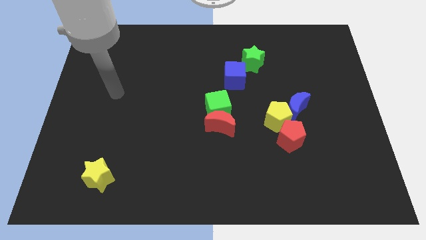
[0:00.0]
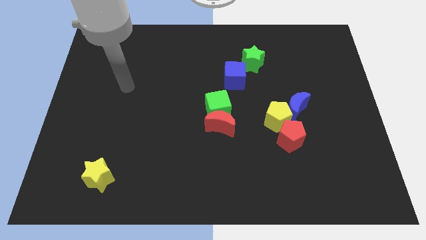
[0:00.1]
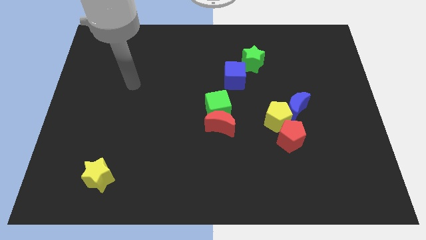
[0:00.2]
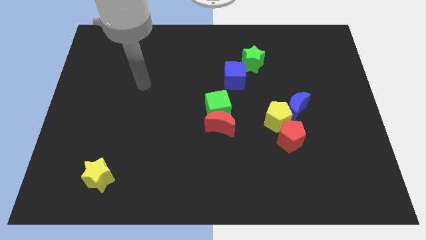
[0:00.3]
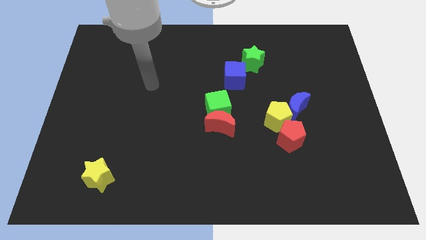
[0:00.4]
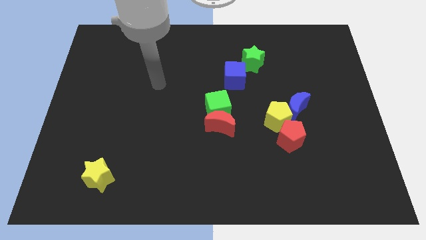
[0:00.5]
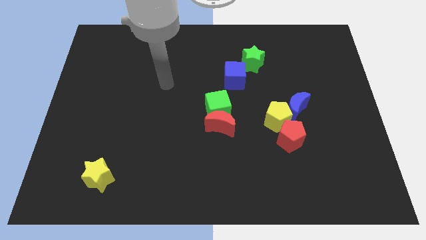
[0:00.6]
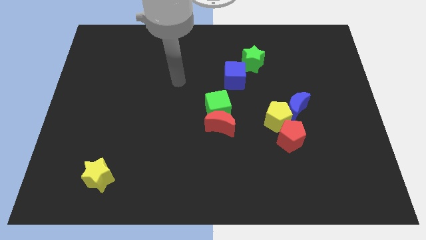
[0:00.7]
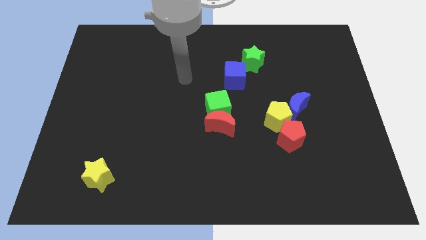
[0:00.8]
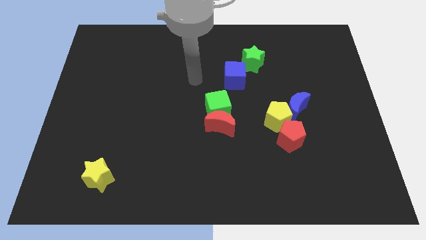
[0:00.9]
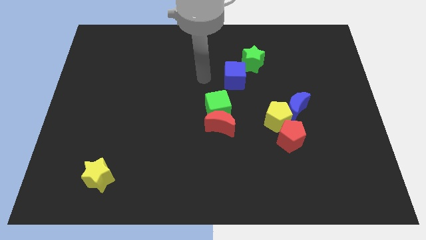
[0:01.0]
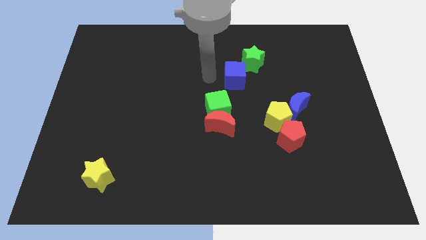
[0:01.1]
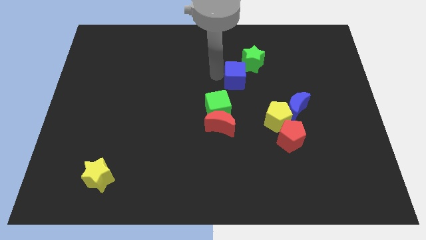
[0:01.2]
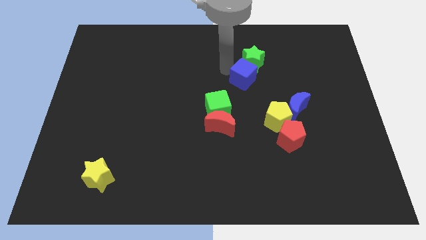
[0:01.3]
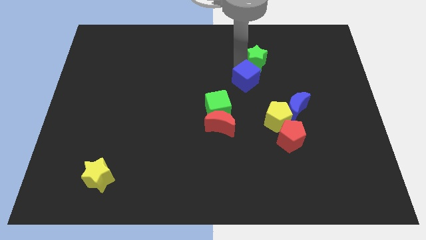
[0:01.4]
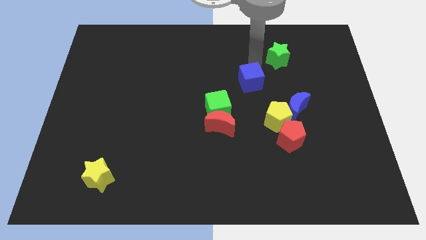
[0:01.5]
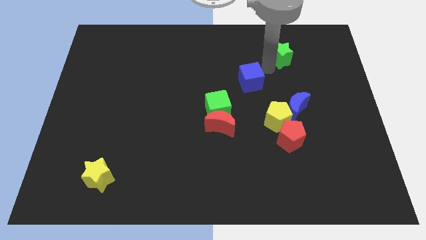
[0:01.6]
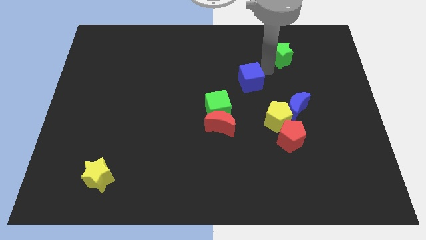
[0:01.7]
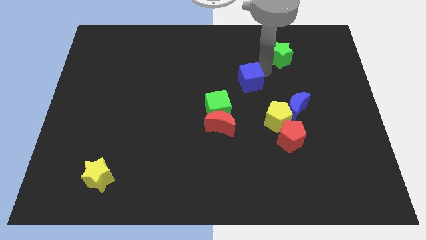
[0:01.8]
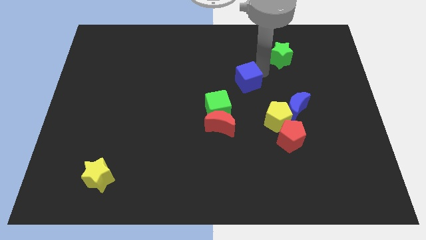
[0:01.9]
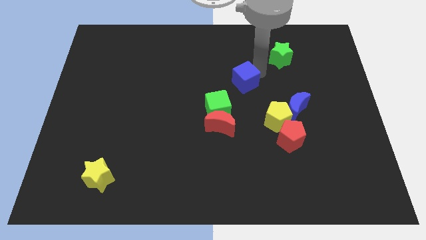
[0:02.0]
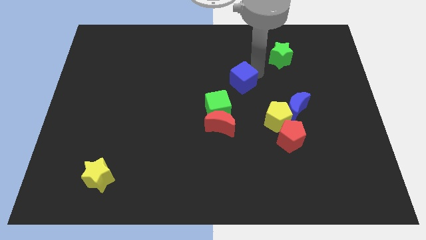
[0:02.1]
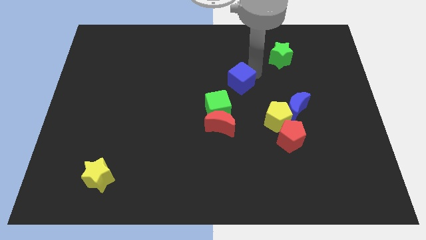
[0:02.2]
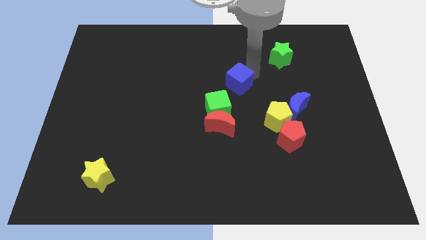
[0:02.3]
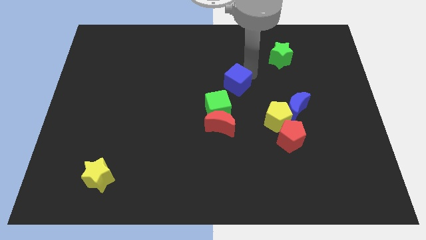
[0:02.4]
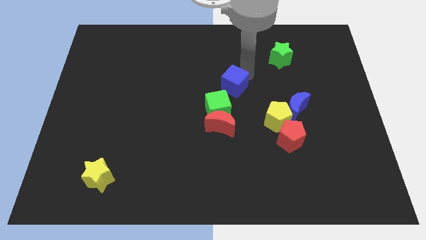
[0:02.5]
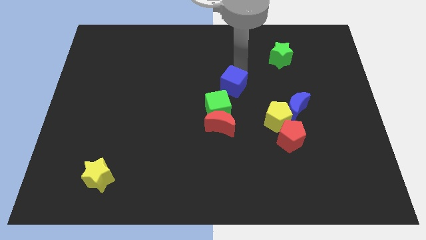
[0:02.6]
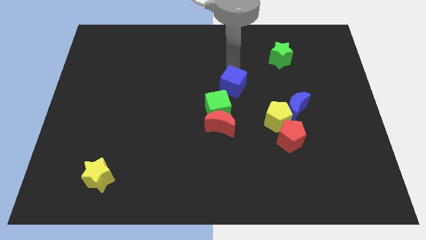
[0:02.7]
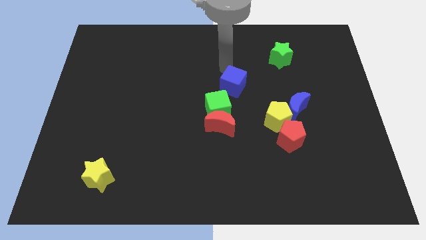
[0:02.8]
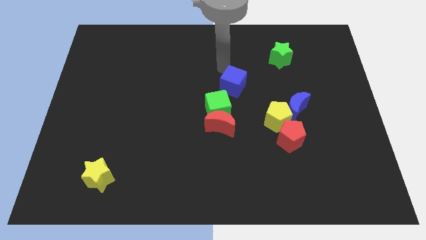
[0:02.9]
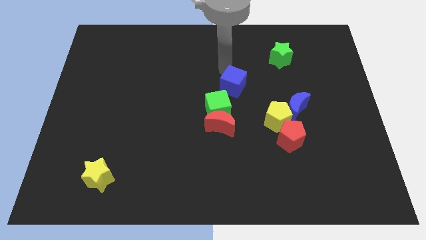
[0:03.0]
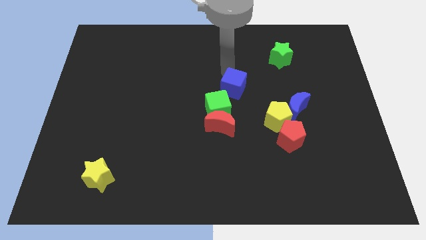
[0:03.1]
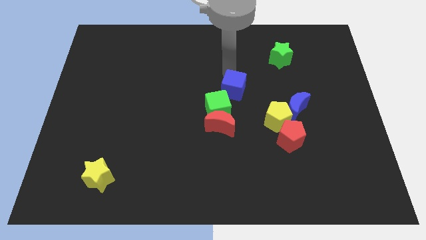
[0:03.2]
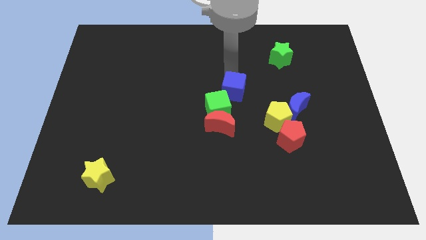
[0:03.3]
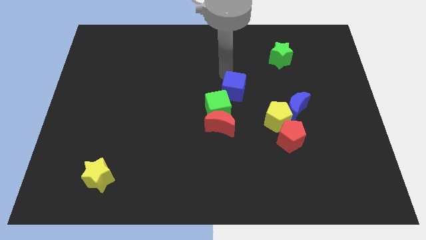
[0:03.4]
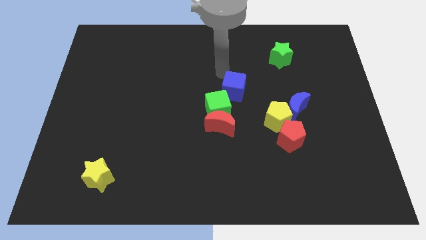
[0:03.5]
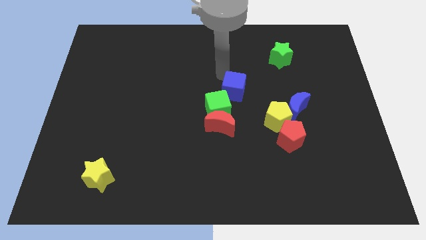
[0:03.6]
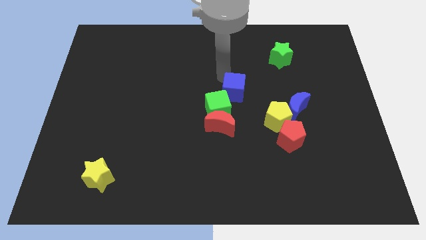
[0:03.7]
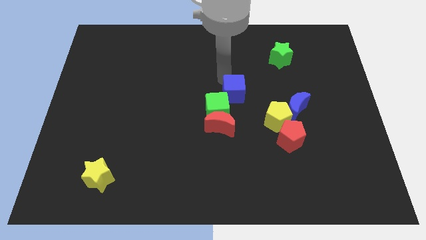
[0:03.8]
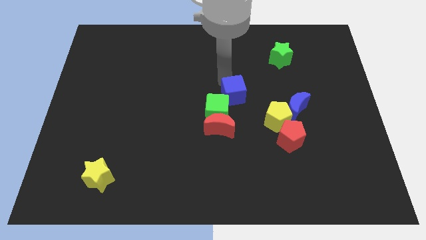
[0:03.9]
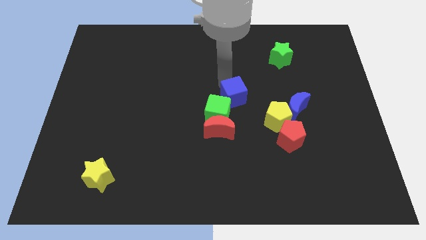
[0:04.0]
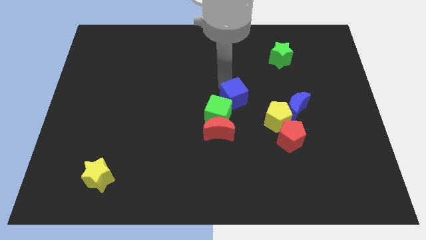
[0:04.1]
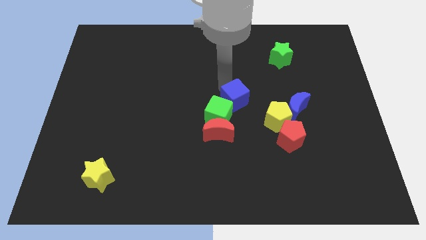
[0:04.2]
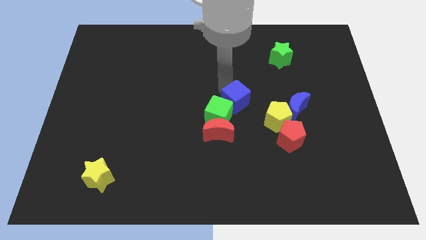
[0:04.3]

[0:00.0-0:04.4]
push the blue cube a little downwards

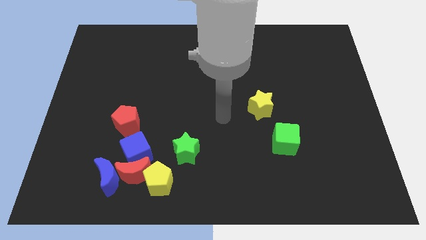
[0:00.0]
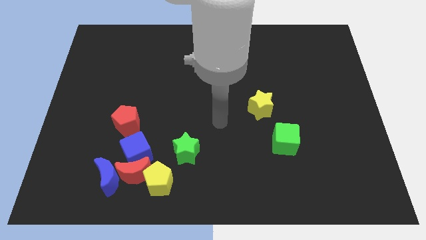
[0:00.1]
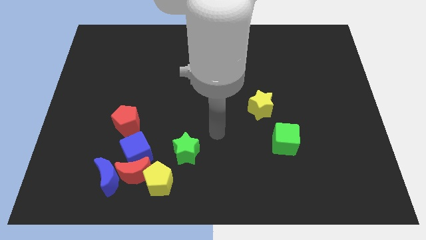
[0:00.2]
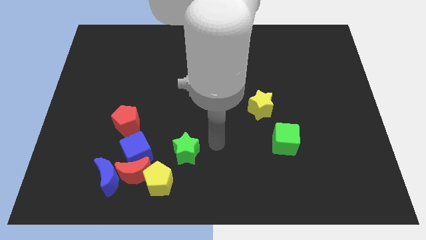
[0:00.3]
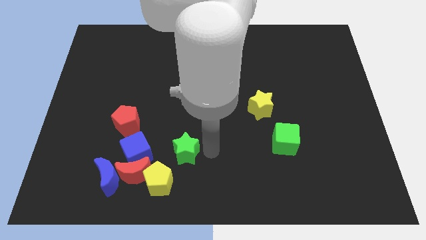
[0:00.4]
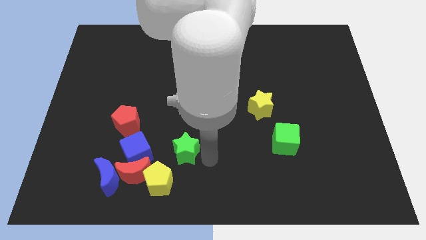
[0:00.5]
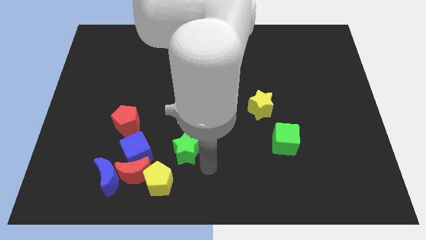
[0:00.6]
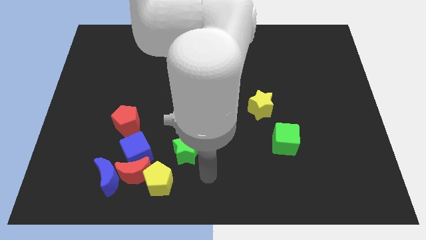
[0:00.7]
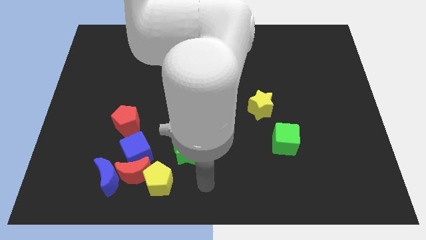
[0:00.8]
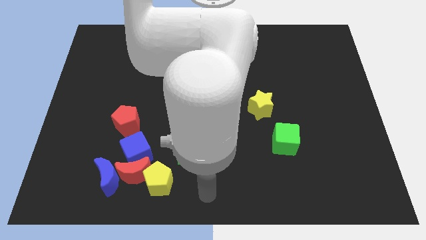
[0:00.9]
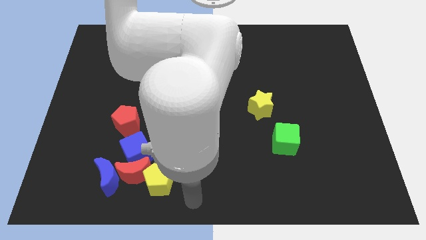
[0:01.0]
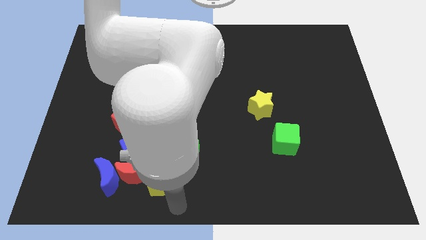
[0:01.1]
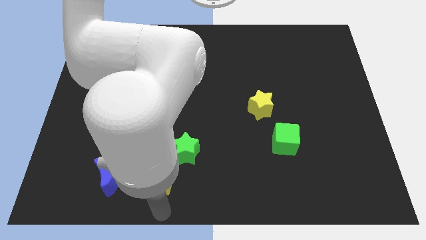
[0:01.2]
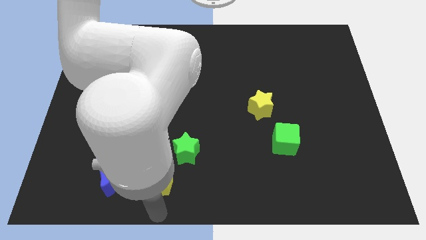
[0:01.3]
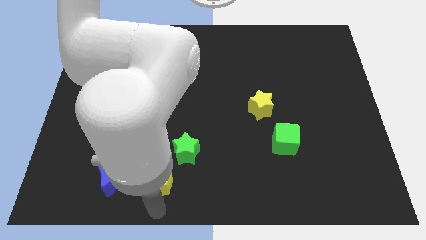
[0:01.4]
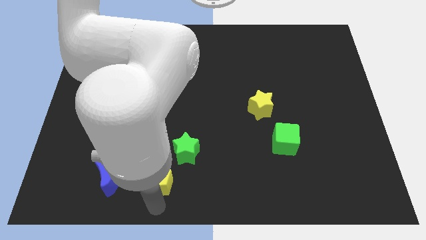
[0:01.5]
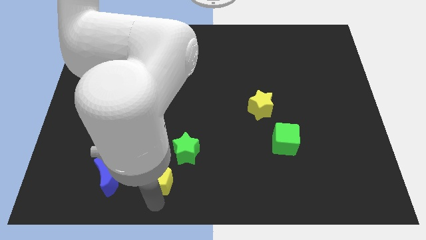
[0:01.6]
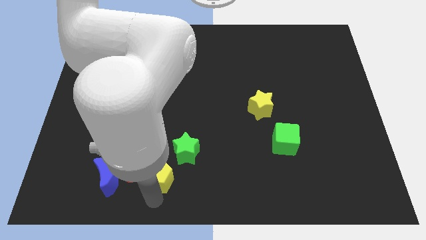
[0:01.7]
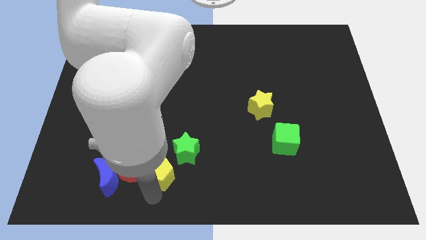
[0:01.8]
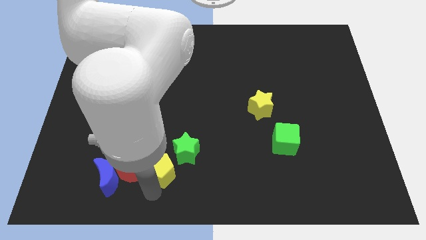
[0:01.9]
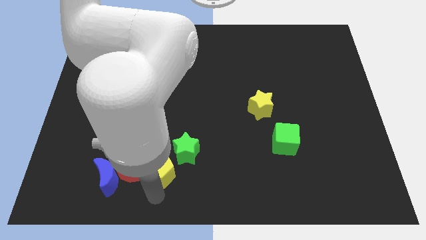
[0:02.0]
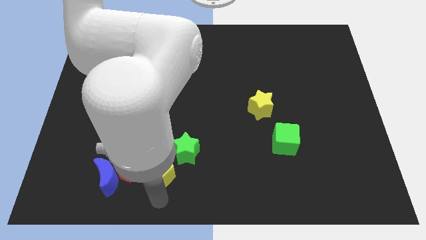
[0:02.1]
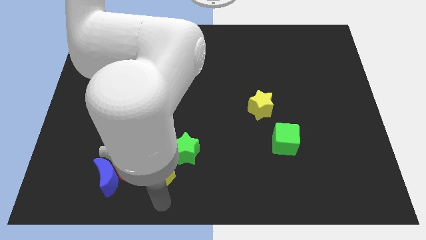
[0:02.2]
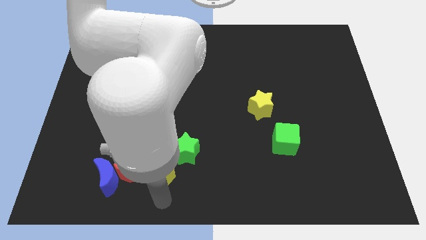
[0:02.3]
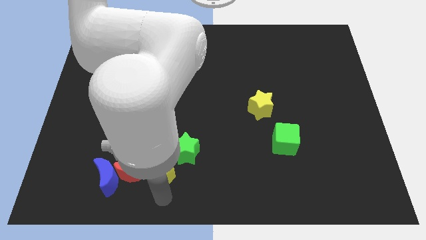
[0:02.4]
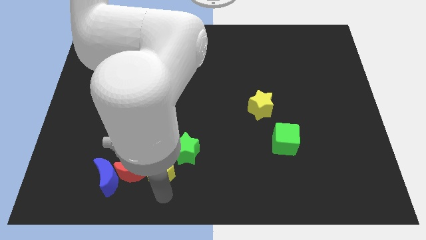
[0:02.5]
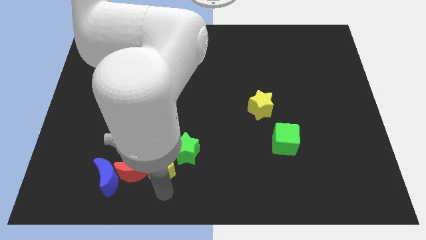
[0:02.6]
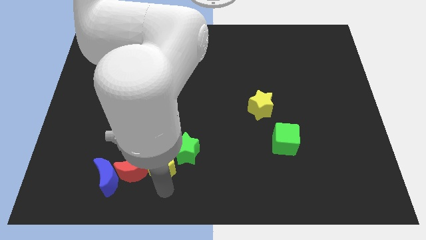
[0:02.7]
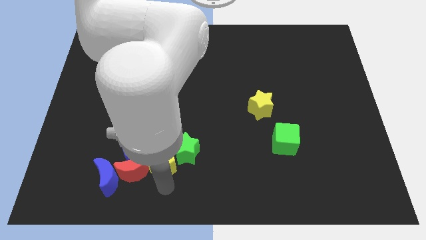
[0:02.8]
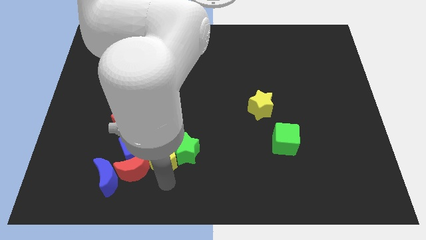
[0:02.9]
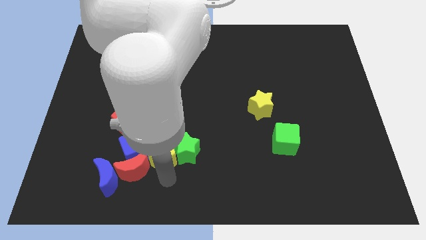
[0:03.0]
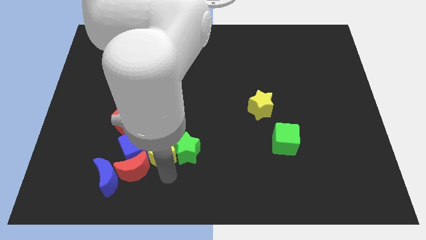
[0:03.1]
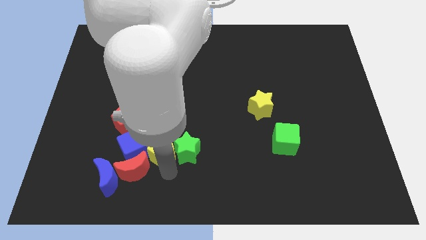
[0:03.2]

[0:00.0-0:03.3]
push the yellow pentagon somewhat upwards

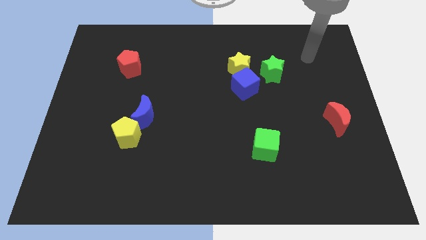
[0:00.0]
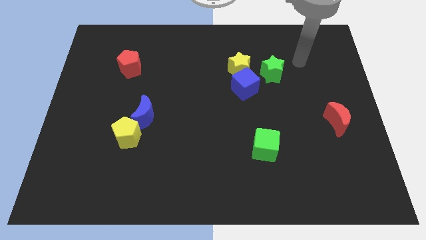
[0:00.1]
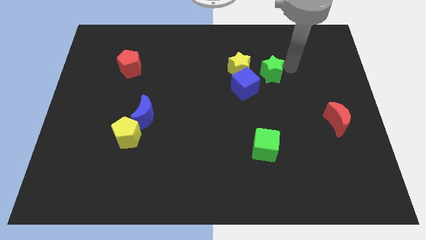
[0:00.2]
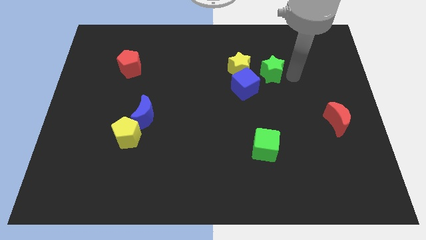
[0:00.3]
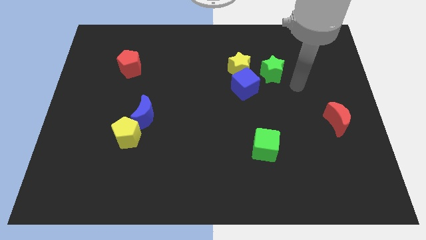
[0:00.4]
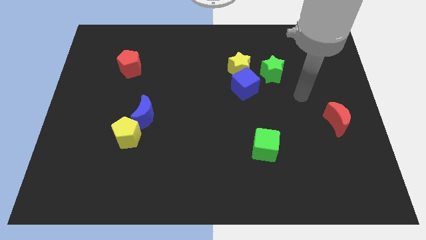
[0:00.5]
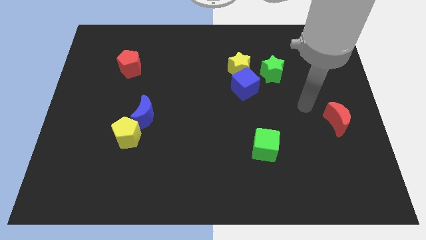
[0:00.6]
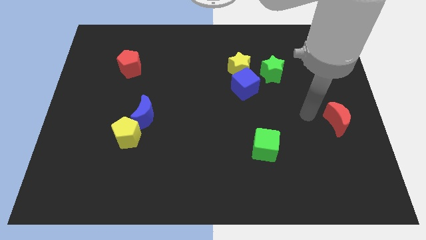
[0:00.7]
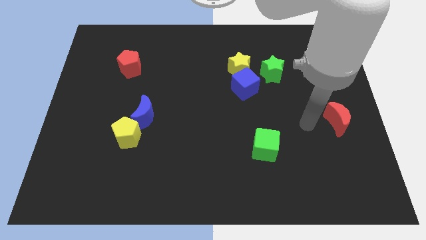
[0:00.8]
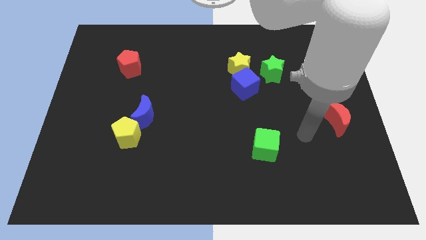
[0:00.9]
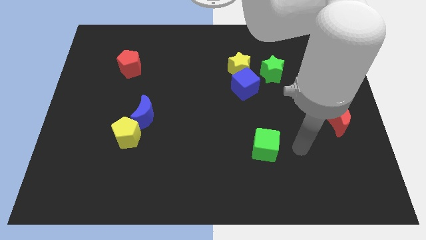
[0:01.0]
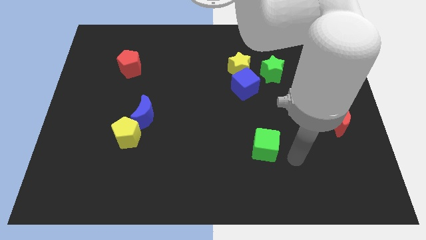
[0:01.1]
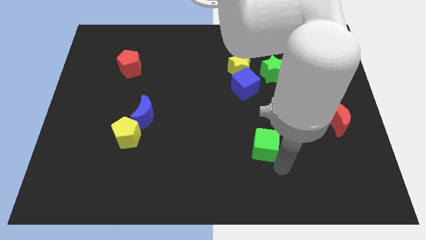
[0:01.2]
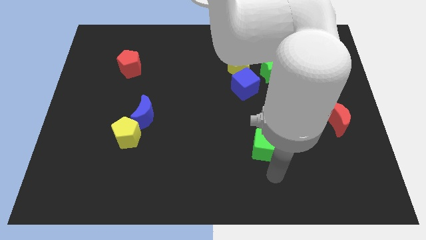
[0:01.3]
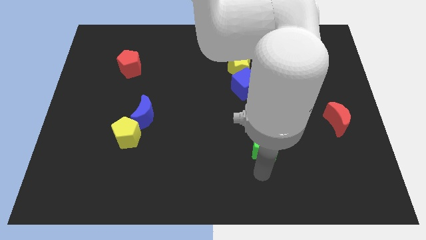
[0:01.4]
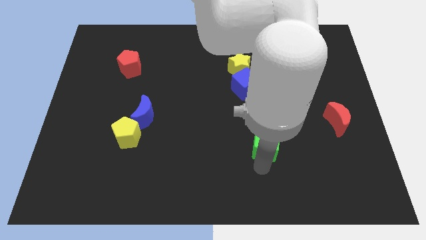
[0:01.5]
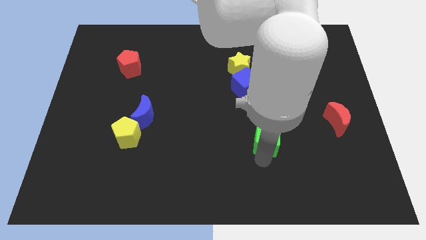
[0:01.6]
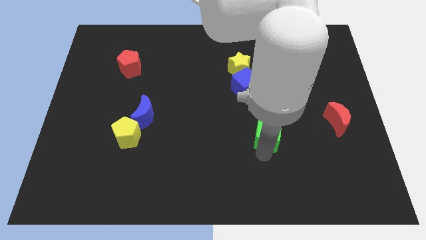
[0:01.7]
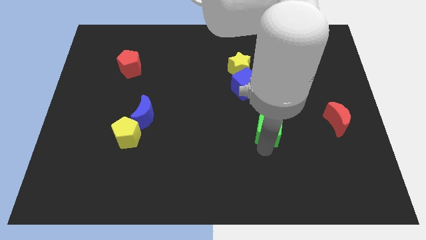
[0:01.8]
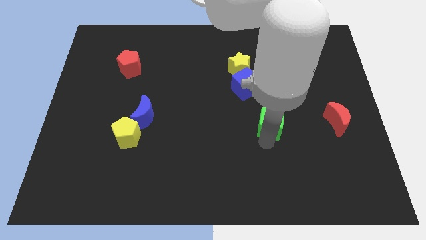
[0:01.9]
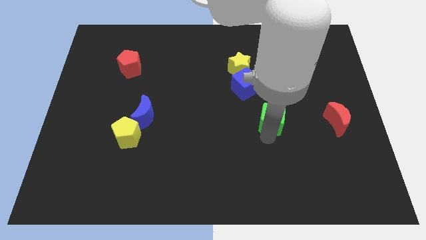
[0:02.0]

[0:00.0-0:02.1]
slightly move the green cube up
